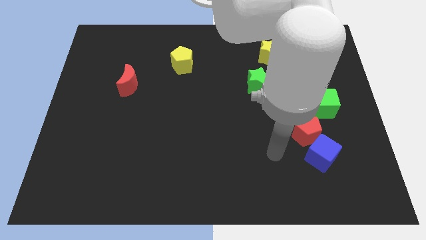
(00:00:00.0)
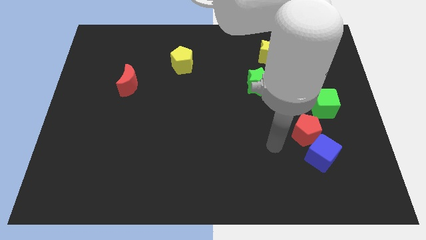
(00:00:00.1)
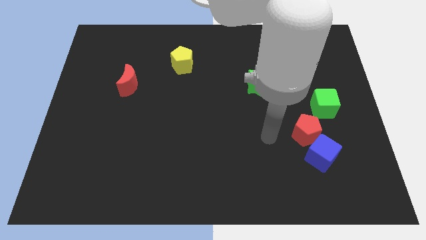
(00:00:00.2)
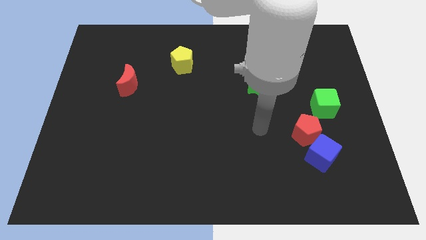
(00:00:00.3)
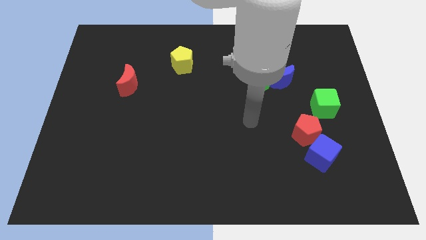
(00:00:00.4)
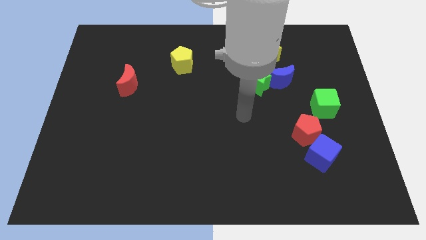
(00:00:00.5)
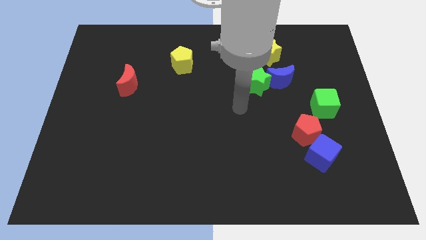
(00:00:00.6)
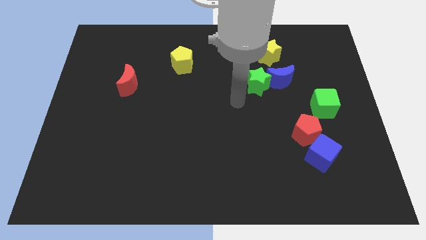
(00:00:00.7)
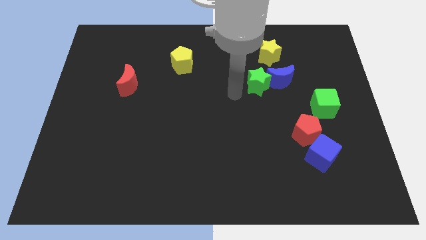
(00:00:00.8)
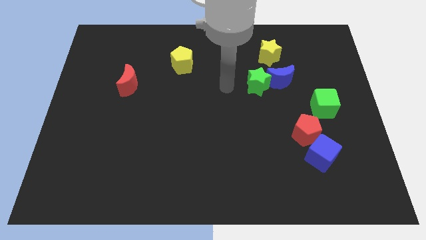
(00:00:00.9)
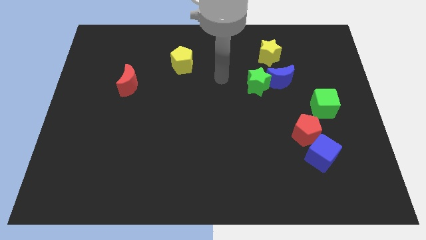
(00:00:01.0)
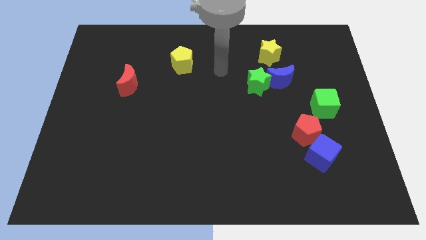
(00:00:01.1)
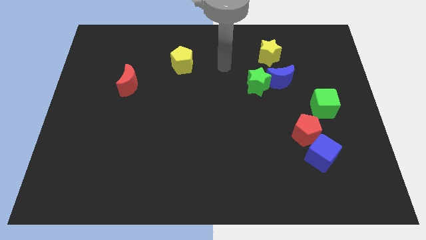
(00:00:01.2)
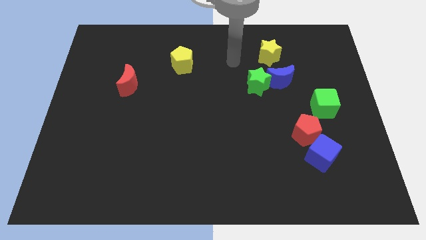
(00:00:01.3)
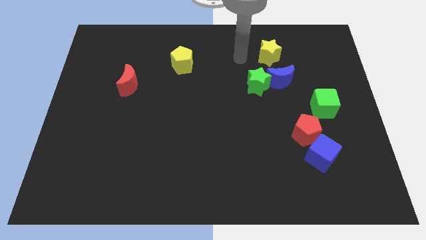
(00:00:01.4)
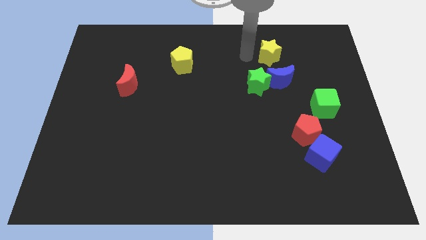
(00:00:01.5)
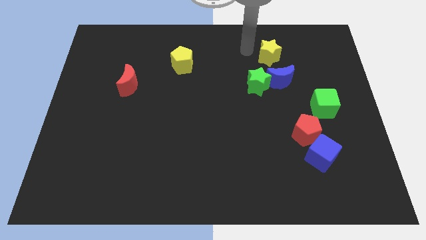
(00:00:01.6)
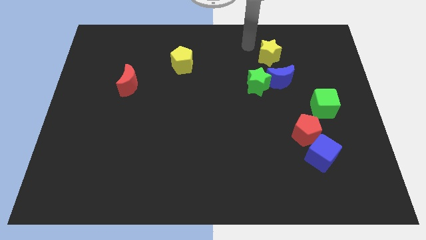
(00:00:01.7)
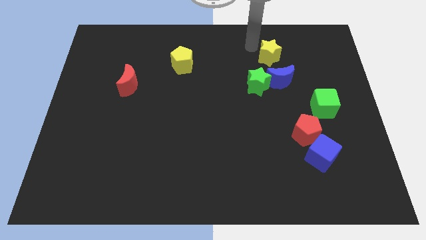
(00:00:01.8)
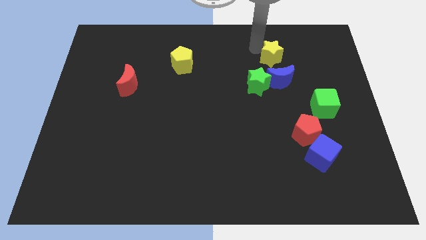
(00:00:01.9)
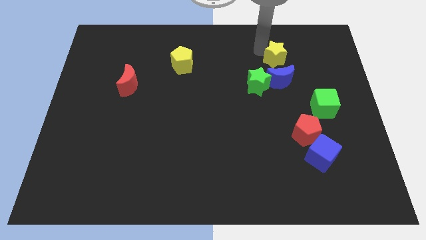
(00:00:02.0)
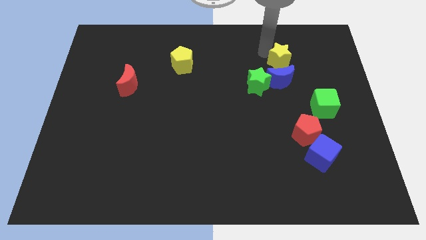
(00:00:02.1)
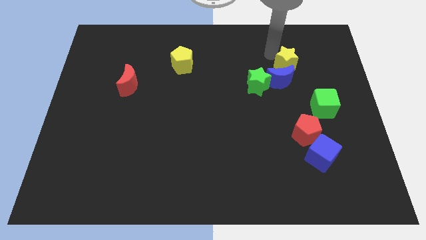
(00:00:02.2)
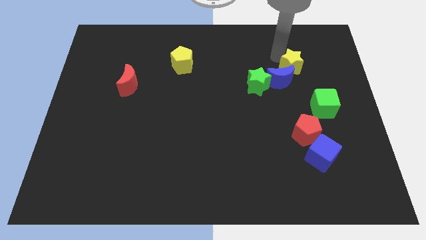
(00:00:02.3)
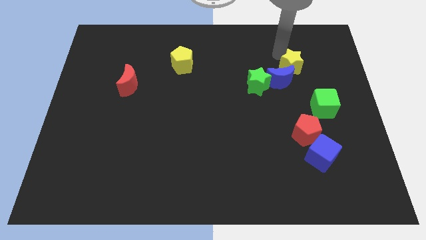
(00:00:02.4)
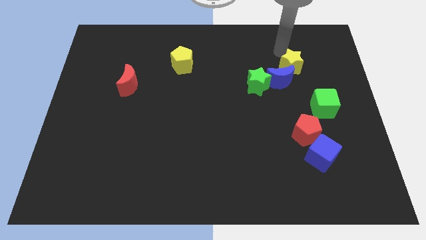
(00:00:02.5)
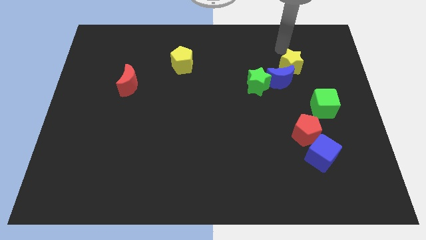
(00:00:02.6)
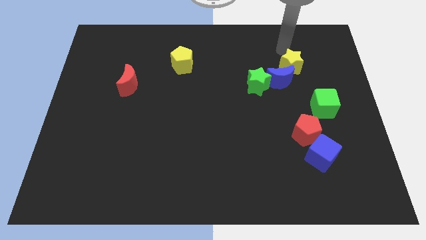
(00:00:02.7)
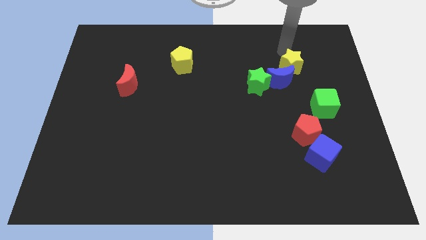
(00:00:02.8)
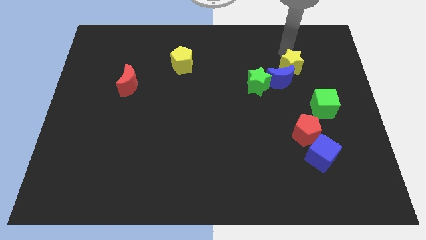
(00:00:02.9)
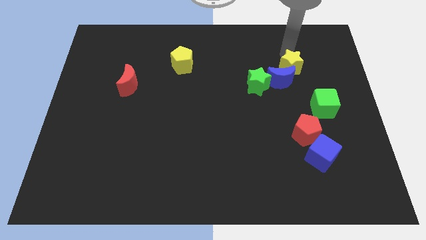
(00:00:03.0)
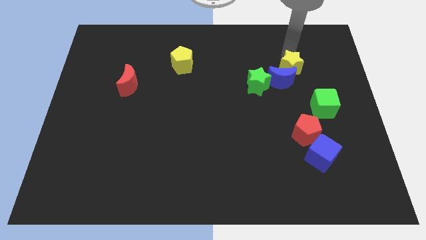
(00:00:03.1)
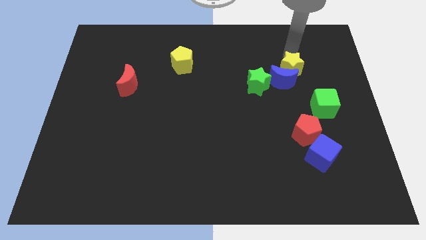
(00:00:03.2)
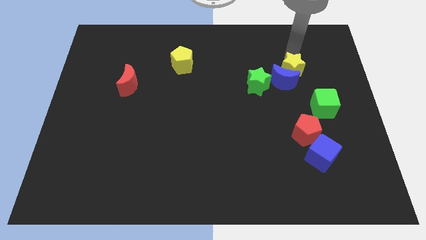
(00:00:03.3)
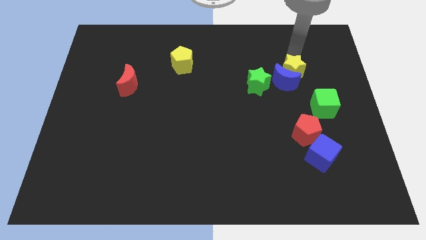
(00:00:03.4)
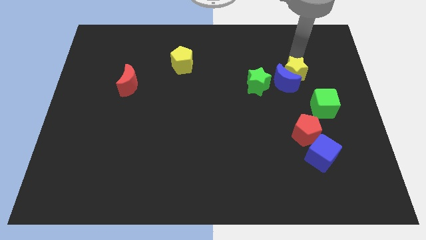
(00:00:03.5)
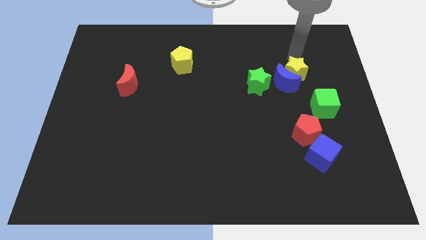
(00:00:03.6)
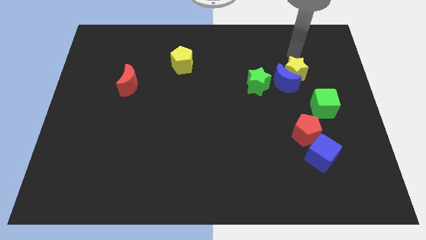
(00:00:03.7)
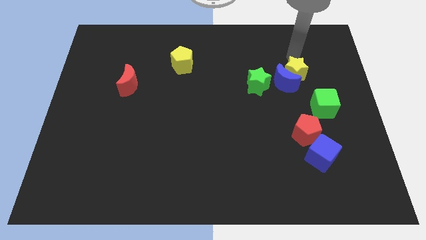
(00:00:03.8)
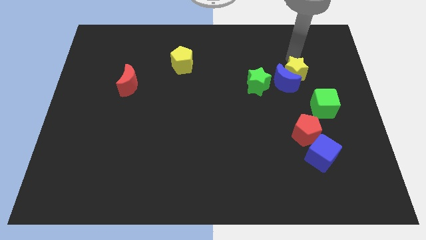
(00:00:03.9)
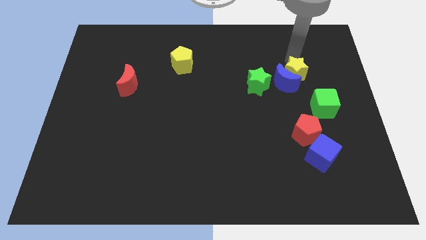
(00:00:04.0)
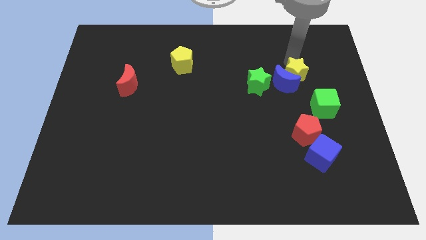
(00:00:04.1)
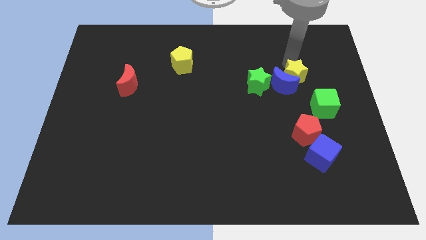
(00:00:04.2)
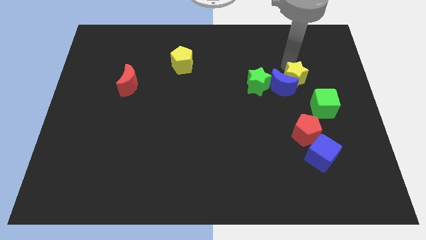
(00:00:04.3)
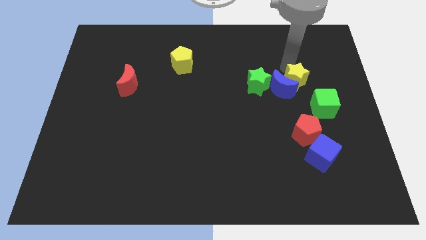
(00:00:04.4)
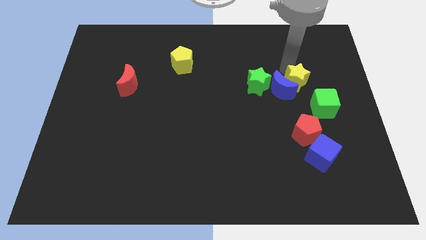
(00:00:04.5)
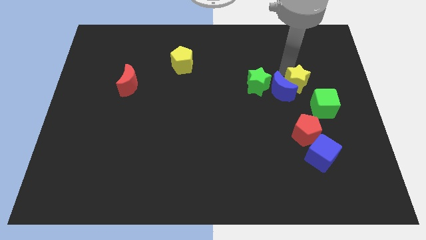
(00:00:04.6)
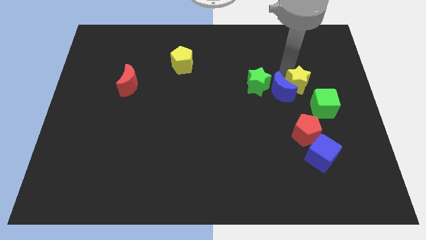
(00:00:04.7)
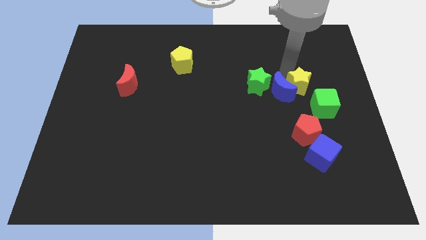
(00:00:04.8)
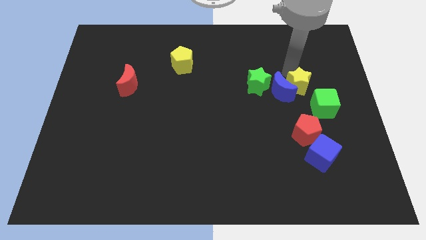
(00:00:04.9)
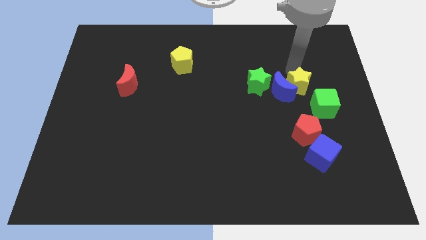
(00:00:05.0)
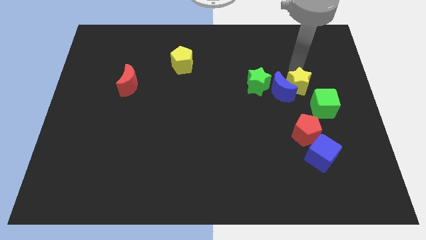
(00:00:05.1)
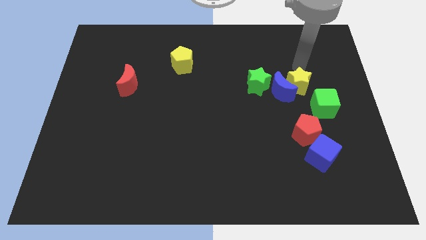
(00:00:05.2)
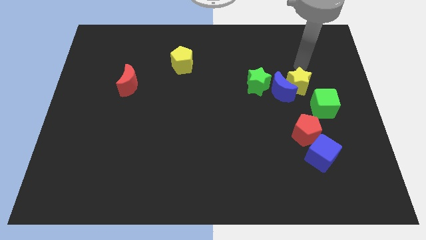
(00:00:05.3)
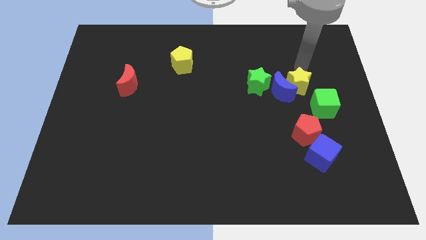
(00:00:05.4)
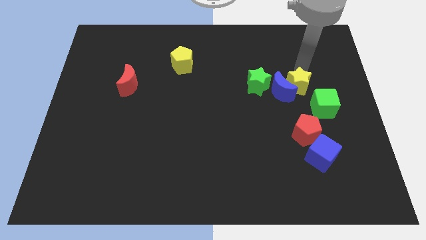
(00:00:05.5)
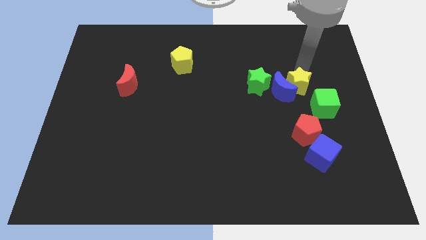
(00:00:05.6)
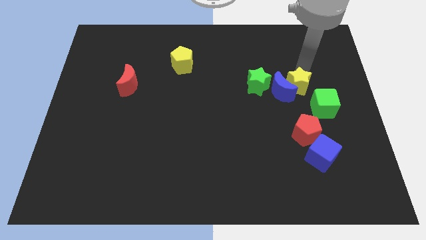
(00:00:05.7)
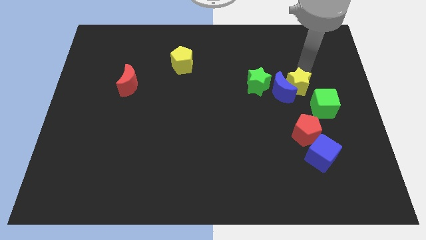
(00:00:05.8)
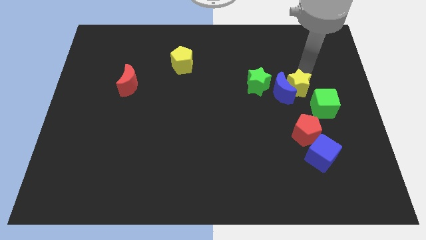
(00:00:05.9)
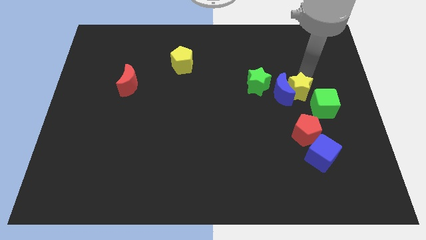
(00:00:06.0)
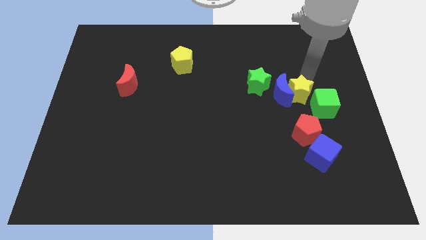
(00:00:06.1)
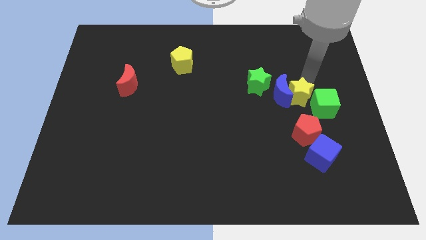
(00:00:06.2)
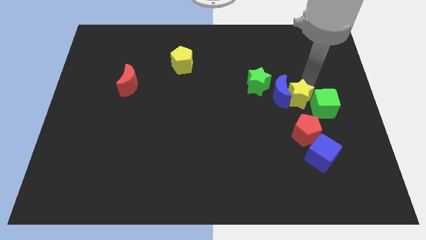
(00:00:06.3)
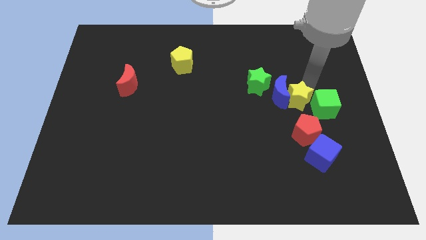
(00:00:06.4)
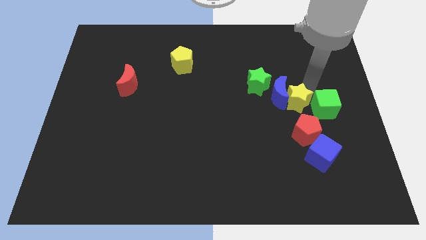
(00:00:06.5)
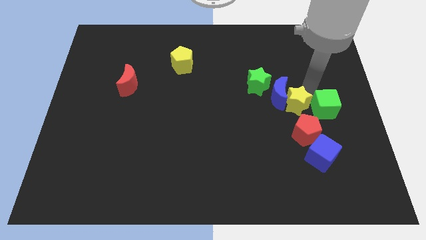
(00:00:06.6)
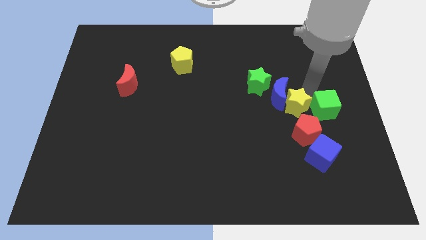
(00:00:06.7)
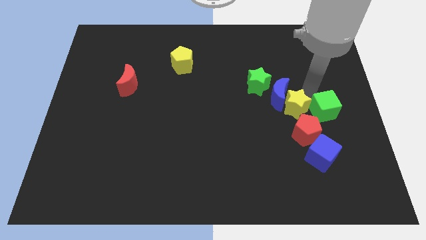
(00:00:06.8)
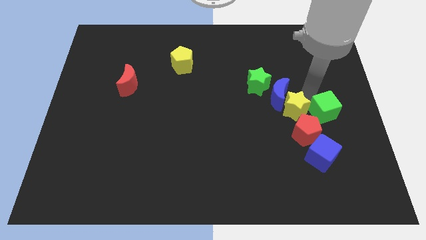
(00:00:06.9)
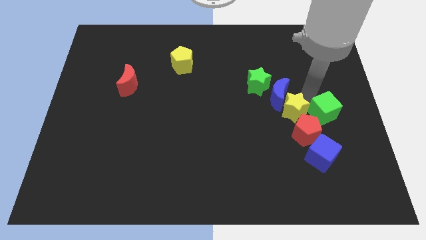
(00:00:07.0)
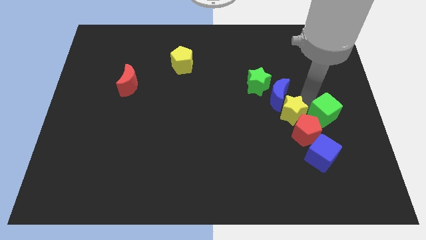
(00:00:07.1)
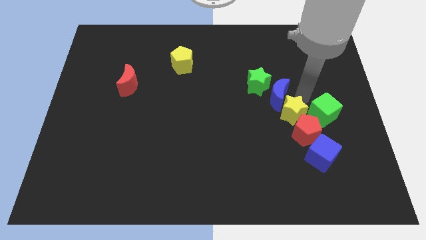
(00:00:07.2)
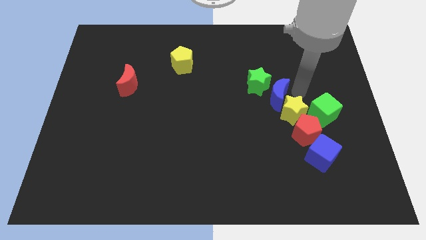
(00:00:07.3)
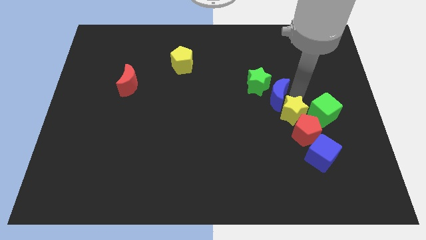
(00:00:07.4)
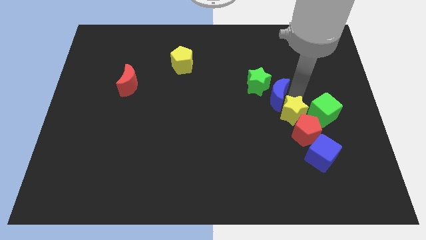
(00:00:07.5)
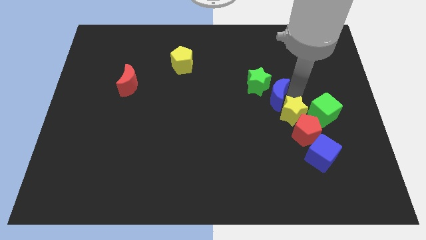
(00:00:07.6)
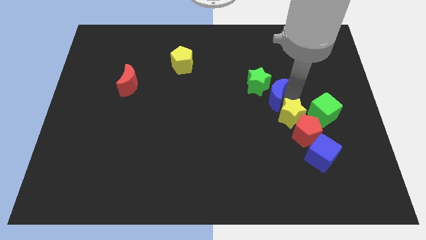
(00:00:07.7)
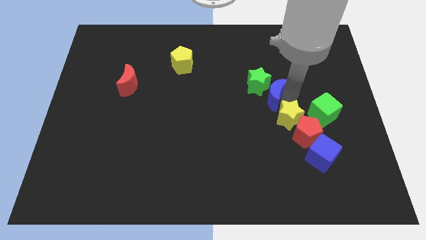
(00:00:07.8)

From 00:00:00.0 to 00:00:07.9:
move the yellow star down
